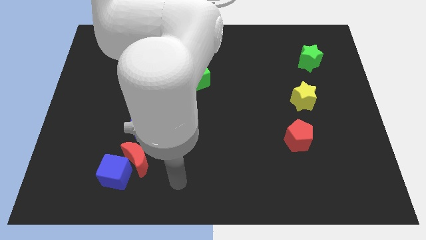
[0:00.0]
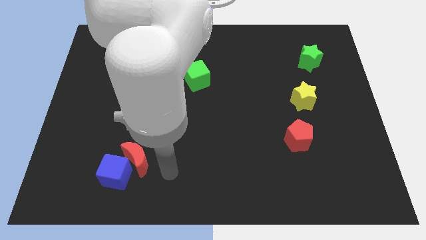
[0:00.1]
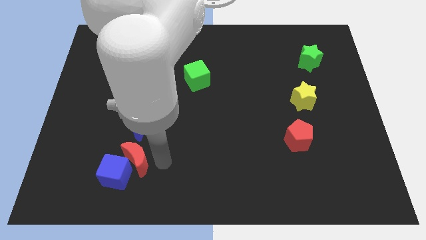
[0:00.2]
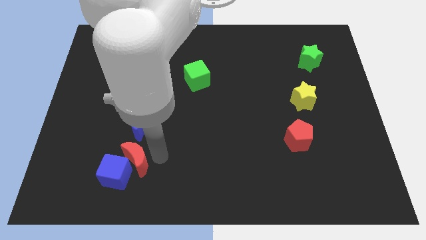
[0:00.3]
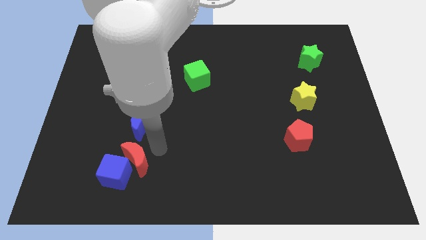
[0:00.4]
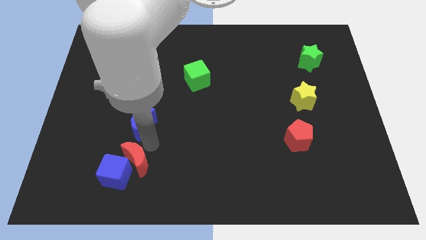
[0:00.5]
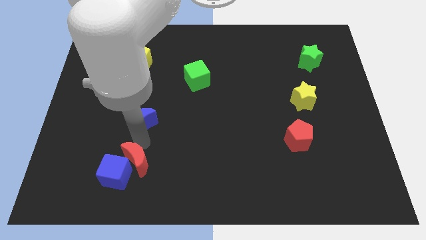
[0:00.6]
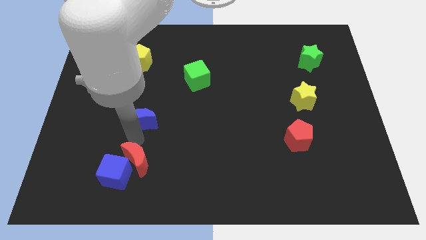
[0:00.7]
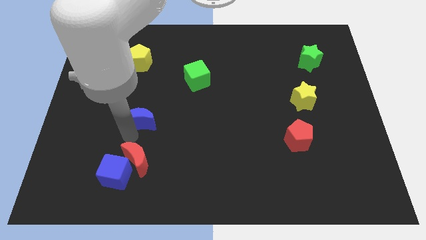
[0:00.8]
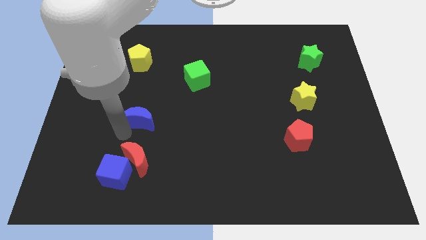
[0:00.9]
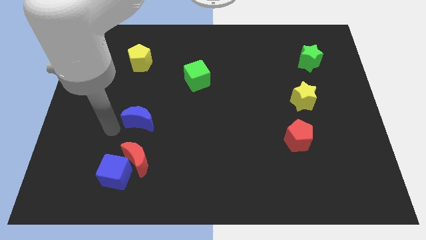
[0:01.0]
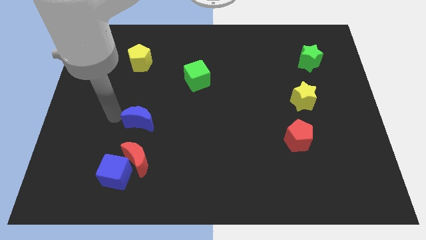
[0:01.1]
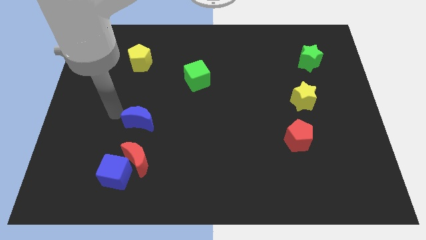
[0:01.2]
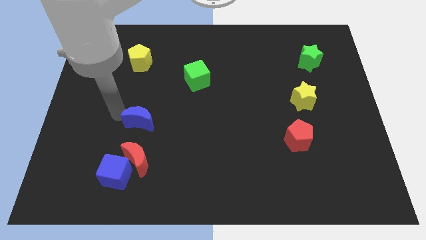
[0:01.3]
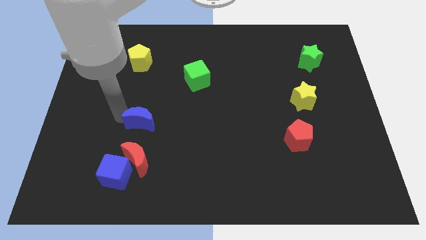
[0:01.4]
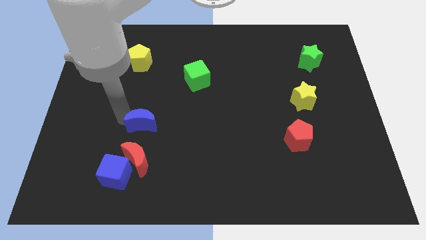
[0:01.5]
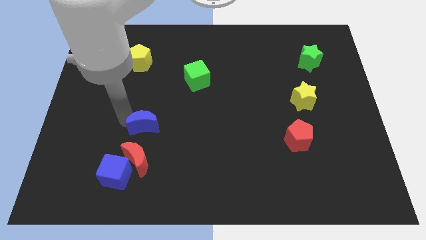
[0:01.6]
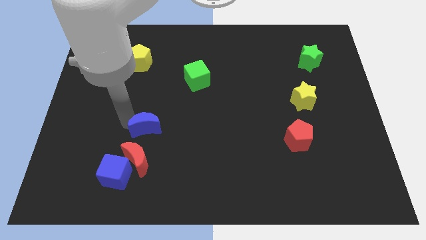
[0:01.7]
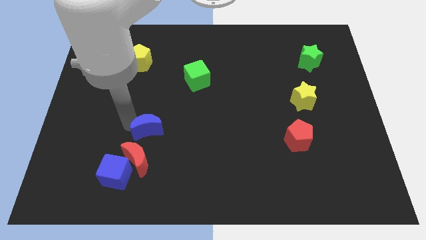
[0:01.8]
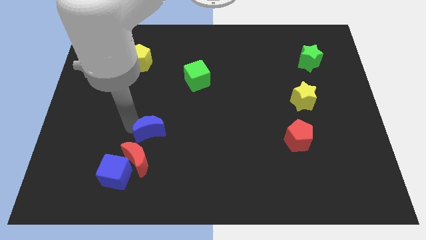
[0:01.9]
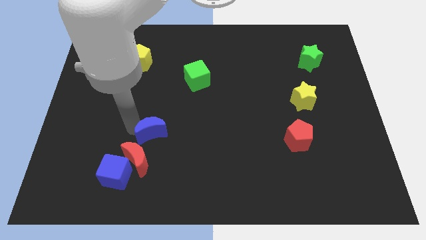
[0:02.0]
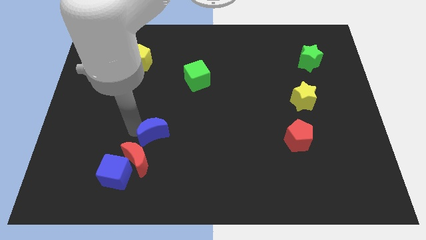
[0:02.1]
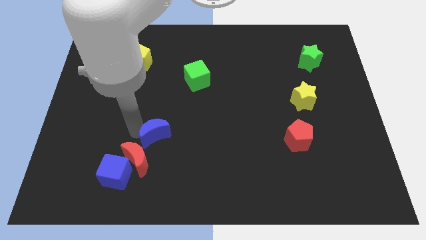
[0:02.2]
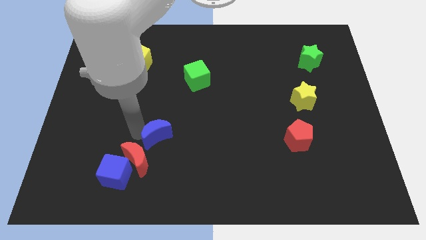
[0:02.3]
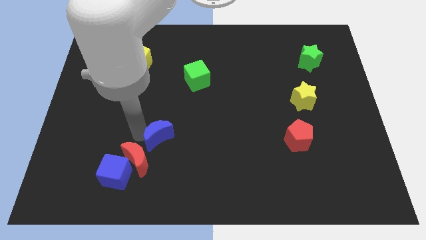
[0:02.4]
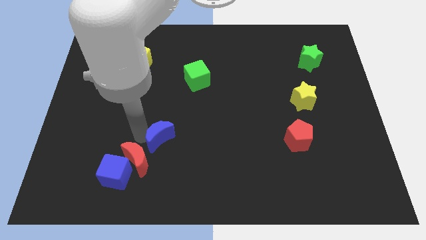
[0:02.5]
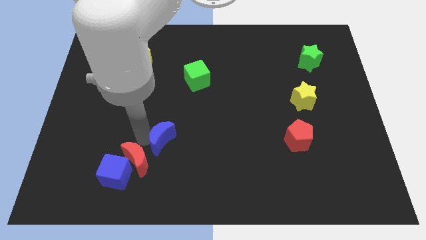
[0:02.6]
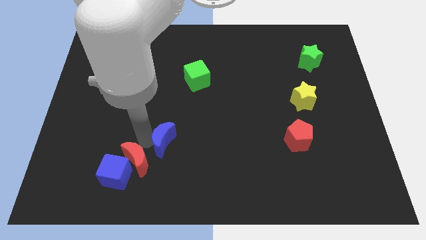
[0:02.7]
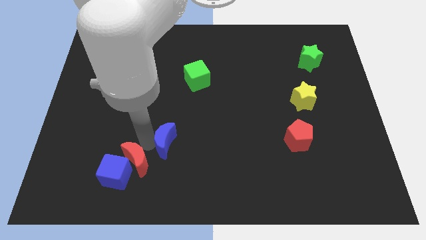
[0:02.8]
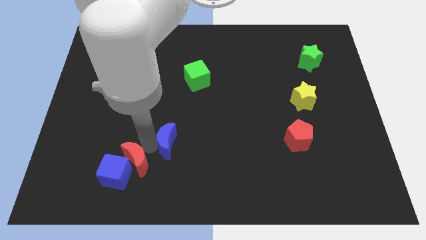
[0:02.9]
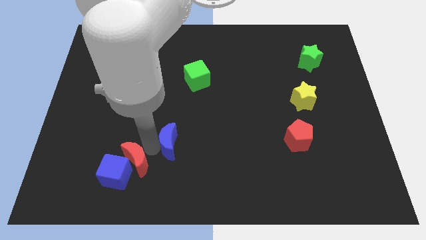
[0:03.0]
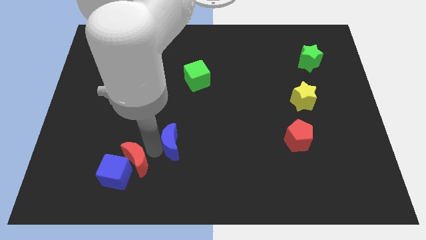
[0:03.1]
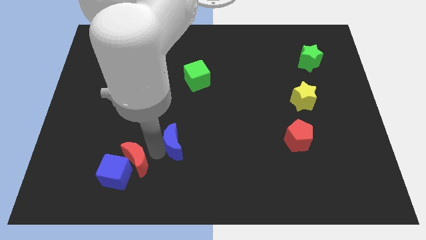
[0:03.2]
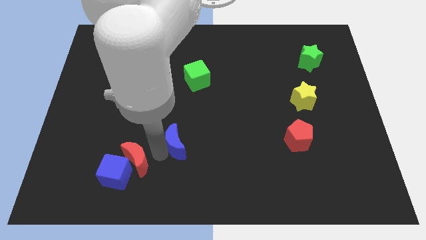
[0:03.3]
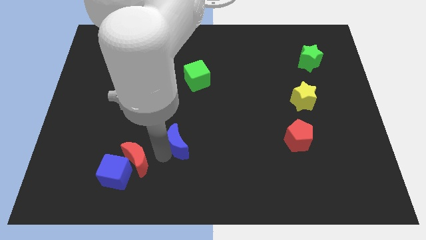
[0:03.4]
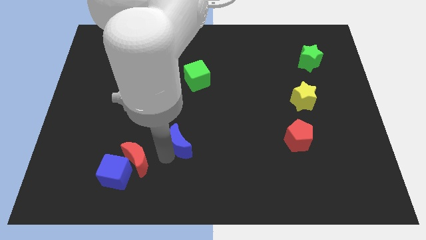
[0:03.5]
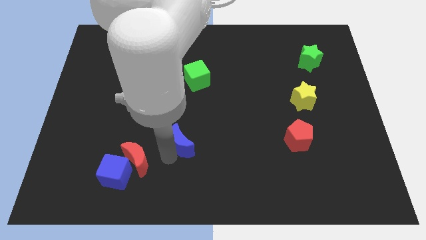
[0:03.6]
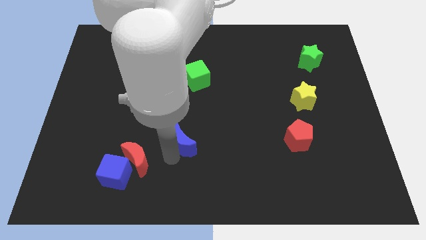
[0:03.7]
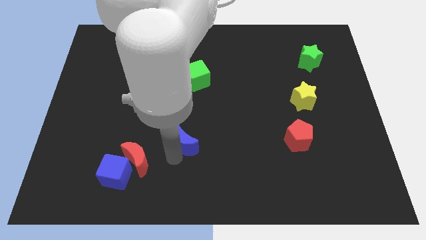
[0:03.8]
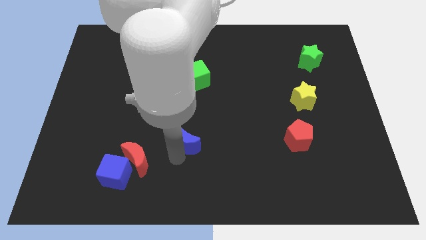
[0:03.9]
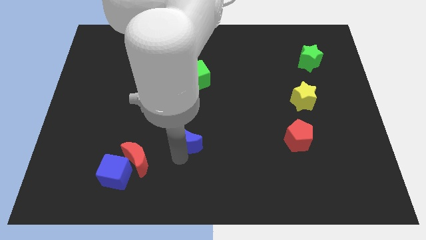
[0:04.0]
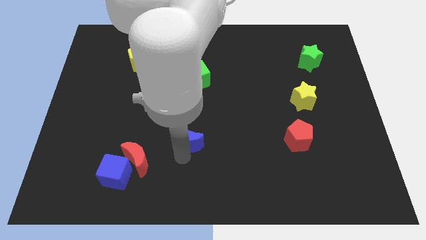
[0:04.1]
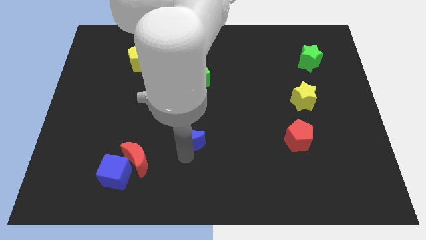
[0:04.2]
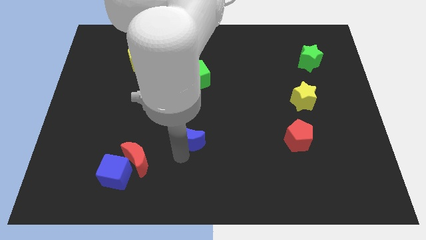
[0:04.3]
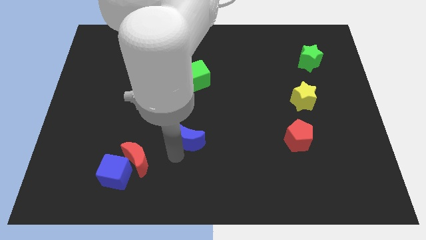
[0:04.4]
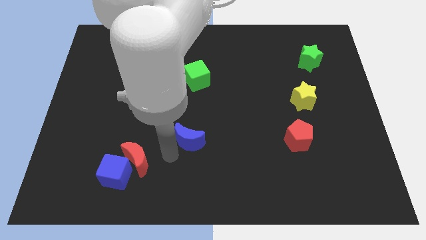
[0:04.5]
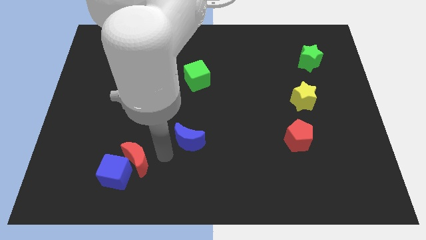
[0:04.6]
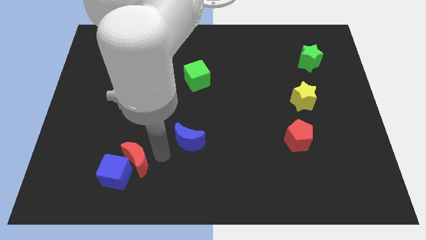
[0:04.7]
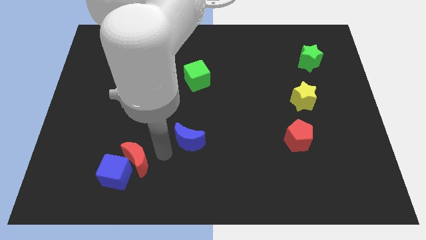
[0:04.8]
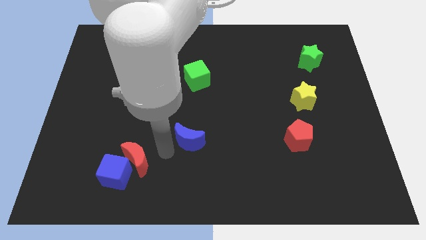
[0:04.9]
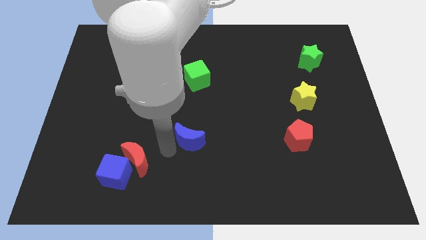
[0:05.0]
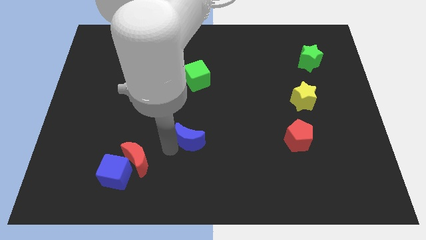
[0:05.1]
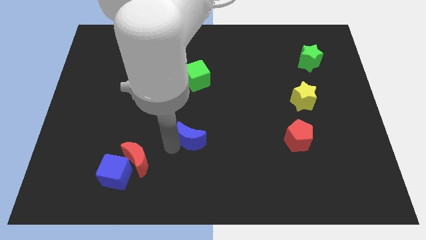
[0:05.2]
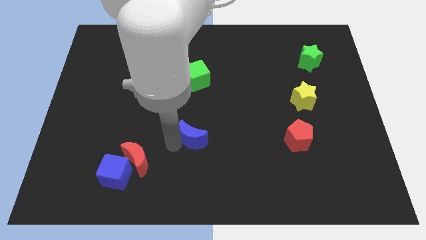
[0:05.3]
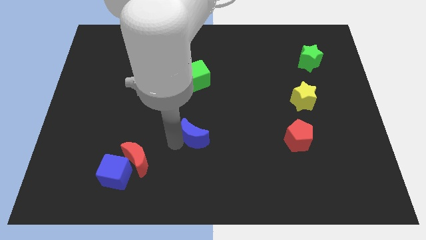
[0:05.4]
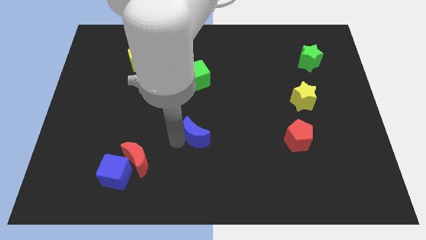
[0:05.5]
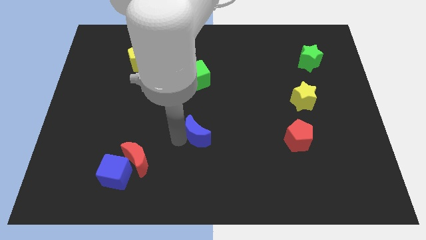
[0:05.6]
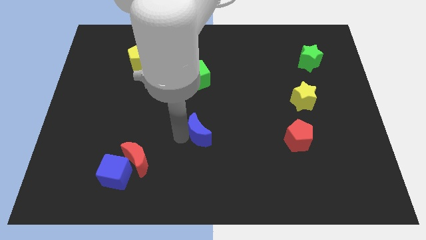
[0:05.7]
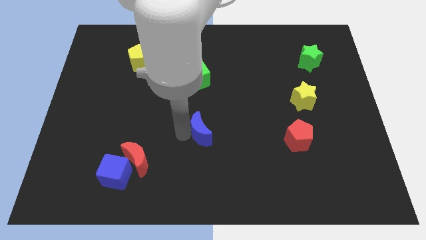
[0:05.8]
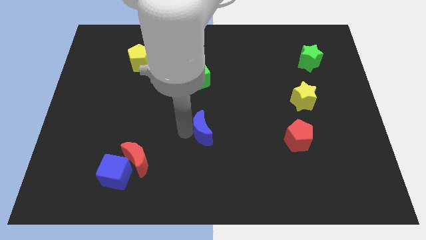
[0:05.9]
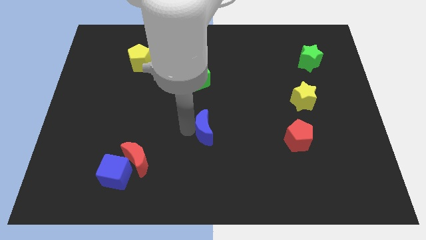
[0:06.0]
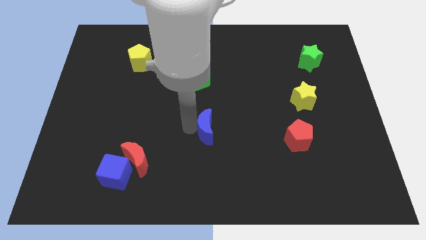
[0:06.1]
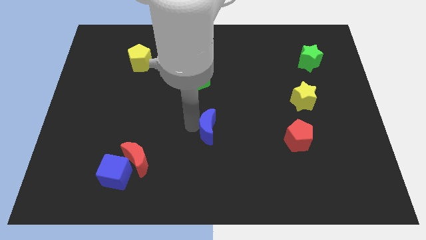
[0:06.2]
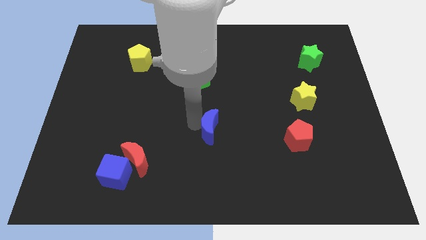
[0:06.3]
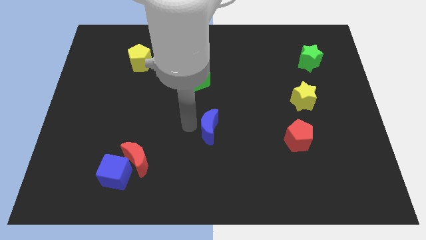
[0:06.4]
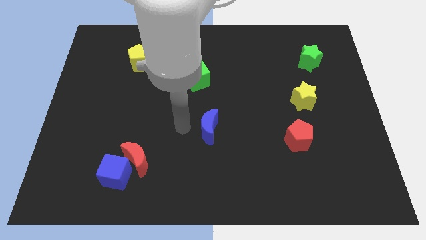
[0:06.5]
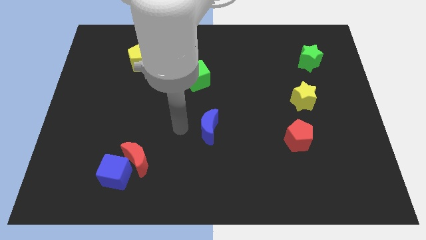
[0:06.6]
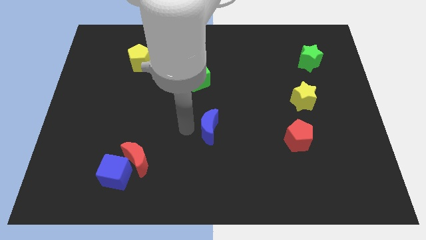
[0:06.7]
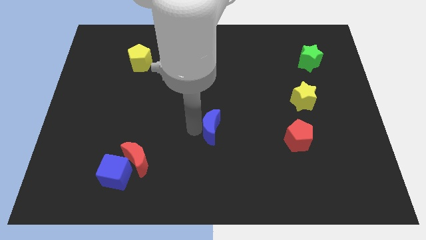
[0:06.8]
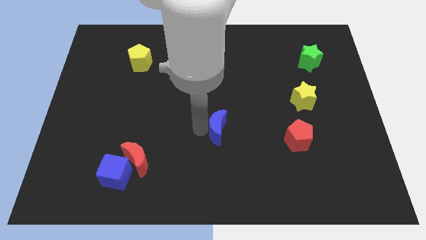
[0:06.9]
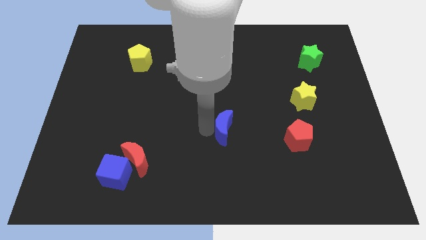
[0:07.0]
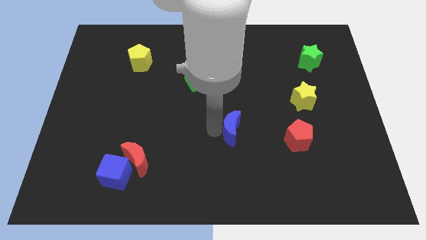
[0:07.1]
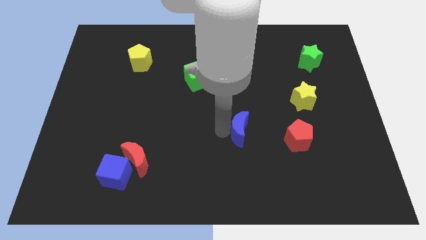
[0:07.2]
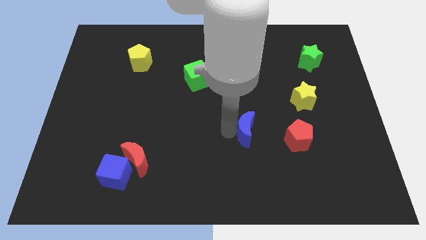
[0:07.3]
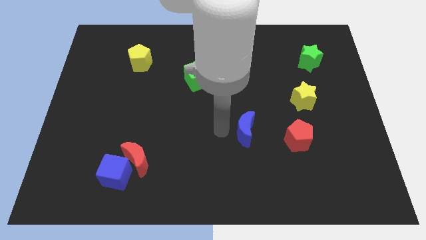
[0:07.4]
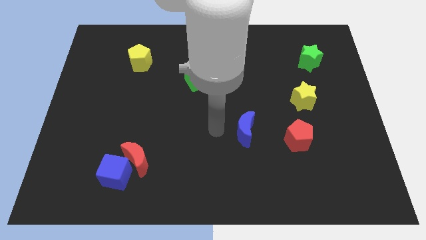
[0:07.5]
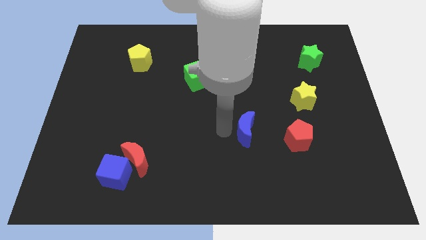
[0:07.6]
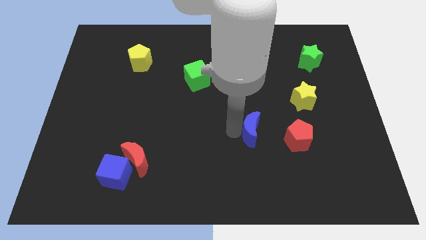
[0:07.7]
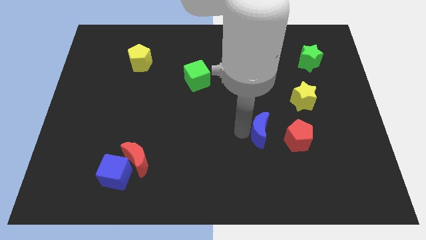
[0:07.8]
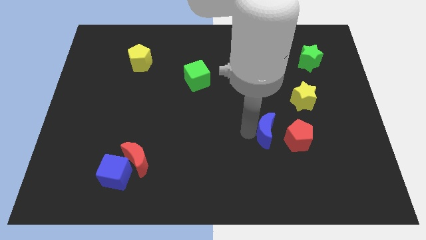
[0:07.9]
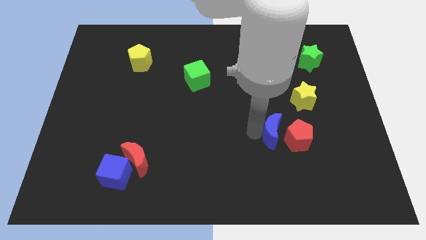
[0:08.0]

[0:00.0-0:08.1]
slide the blue moon next to the red pentagon
